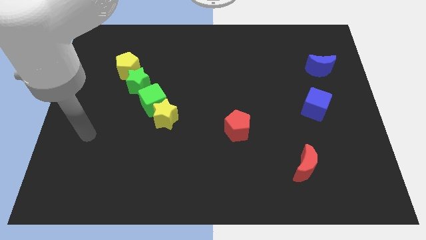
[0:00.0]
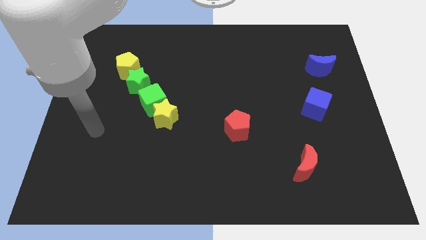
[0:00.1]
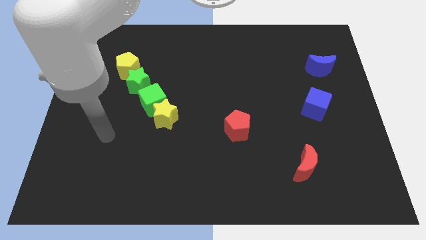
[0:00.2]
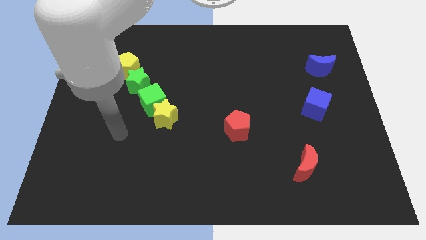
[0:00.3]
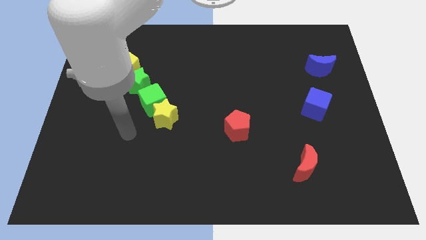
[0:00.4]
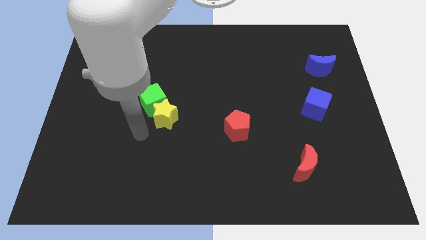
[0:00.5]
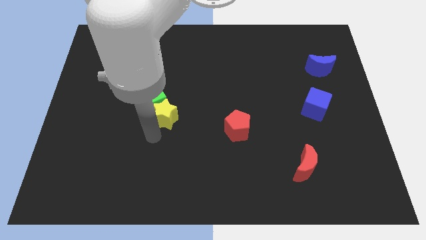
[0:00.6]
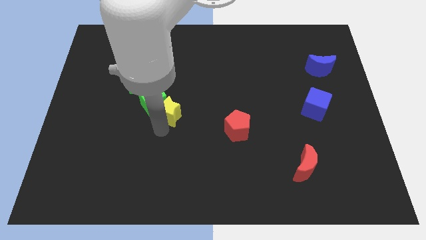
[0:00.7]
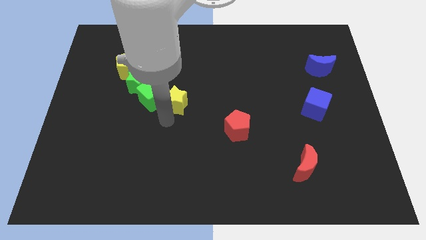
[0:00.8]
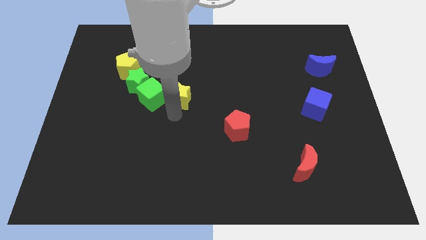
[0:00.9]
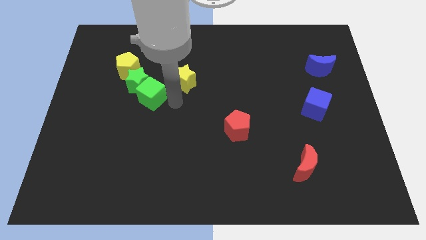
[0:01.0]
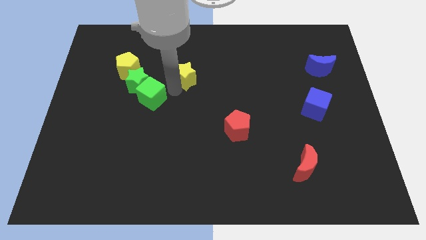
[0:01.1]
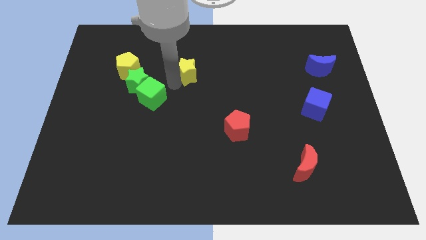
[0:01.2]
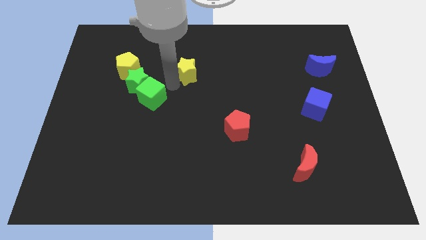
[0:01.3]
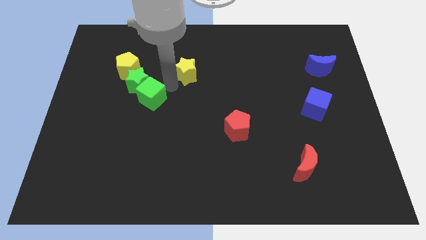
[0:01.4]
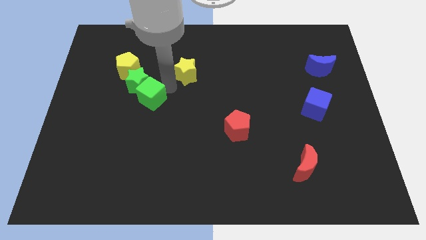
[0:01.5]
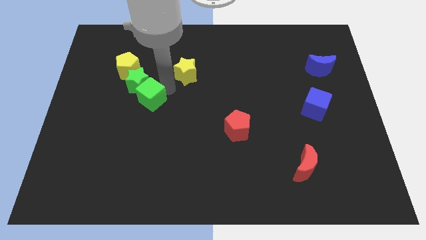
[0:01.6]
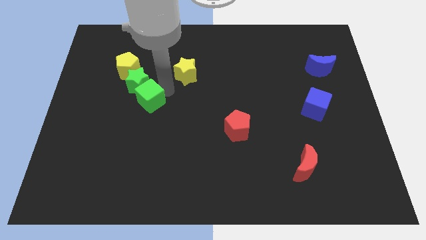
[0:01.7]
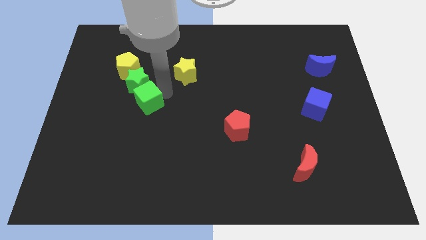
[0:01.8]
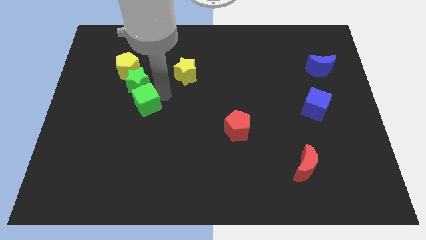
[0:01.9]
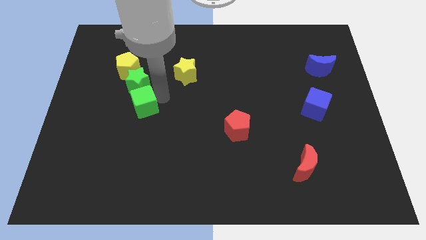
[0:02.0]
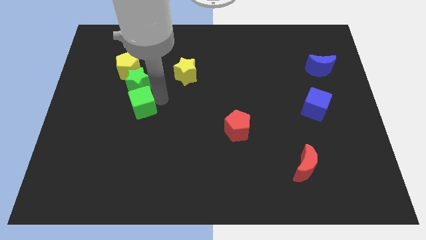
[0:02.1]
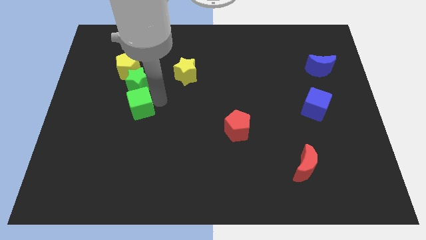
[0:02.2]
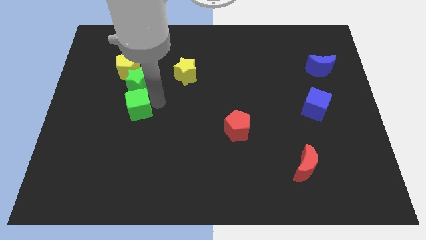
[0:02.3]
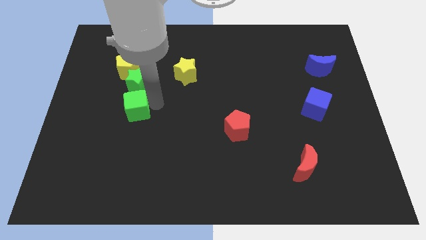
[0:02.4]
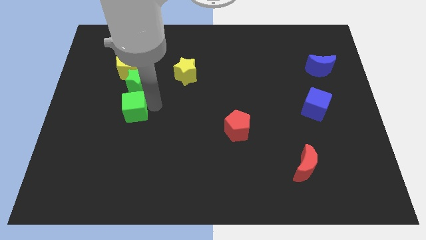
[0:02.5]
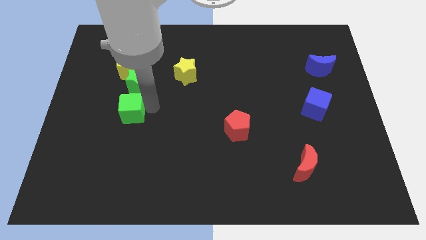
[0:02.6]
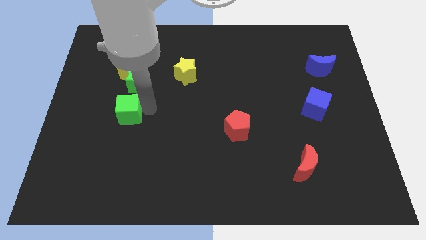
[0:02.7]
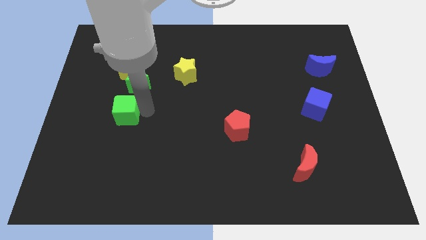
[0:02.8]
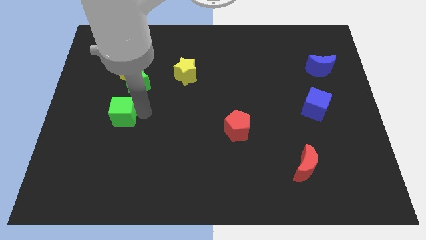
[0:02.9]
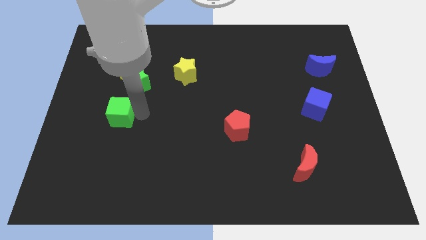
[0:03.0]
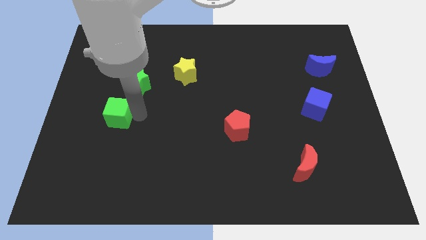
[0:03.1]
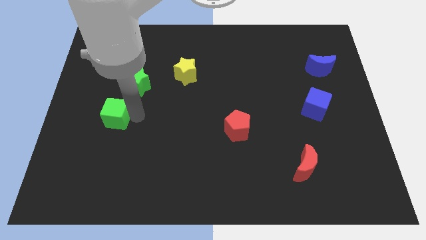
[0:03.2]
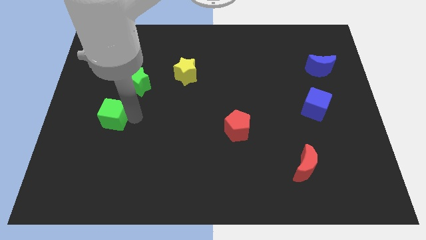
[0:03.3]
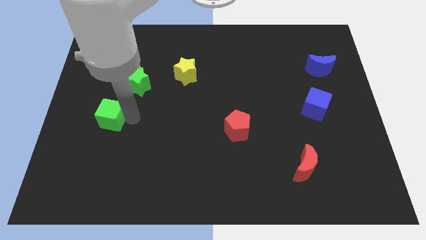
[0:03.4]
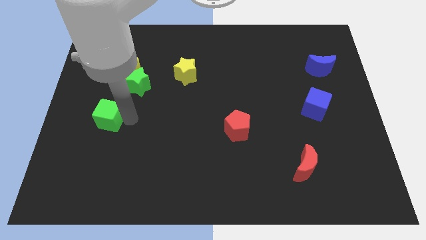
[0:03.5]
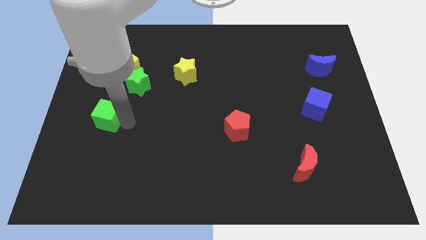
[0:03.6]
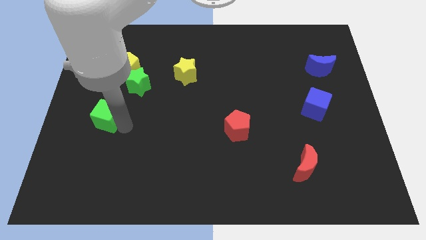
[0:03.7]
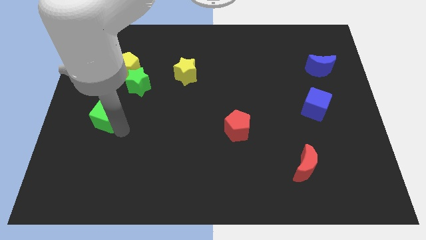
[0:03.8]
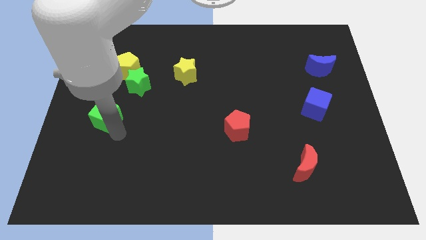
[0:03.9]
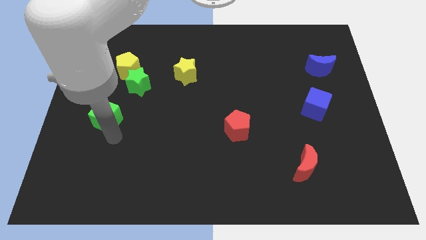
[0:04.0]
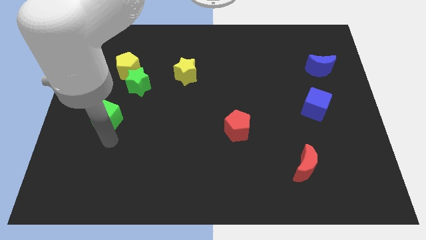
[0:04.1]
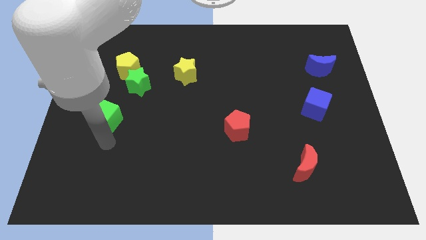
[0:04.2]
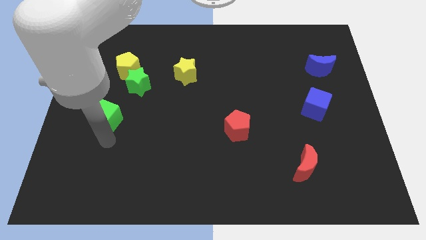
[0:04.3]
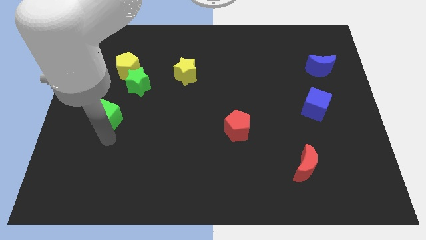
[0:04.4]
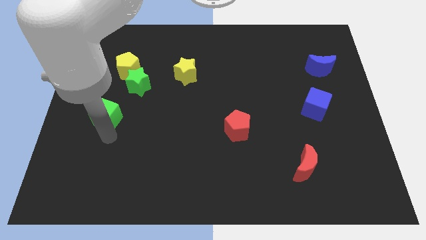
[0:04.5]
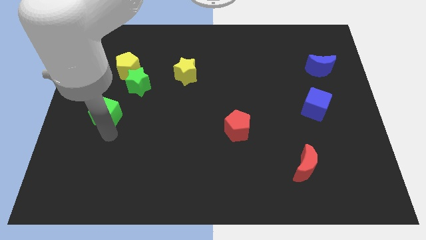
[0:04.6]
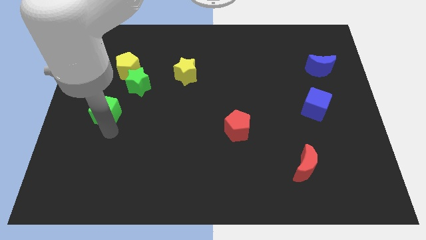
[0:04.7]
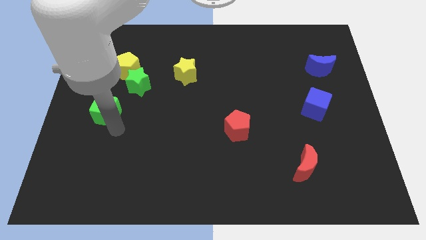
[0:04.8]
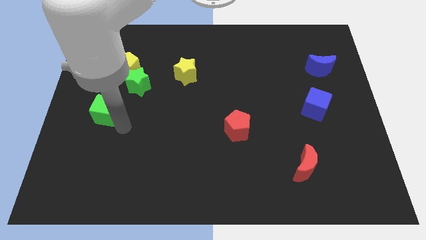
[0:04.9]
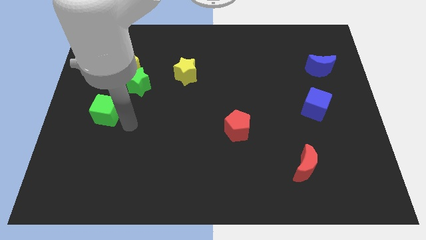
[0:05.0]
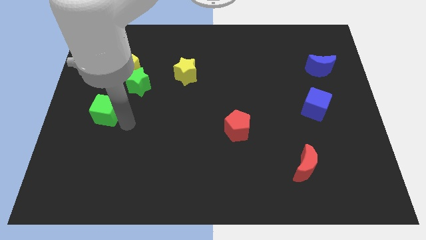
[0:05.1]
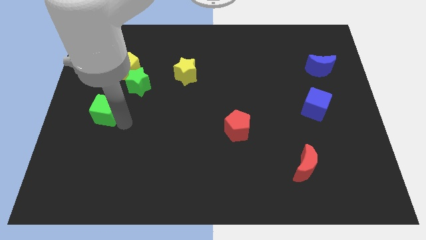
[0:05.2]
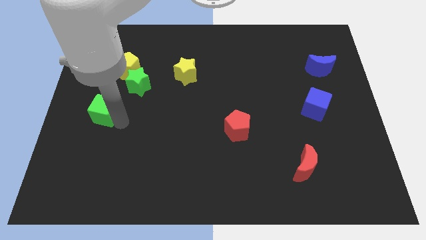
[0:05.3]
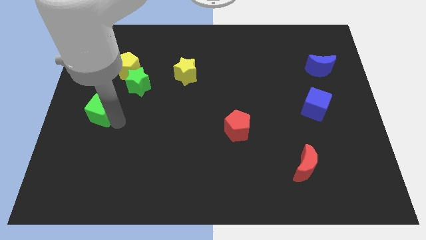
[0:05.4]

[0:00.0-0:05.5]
move the green cube to the center left

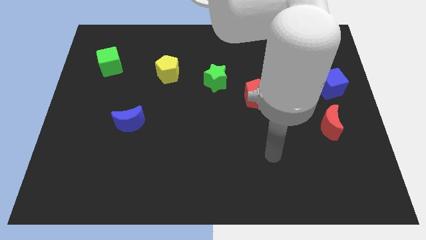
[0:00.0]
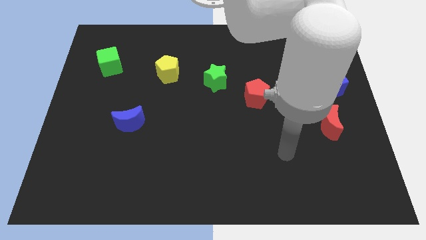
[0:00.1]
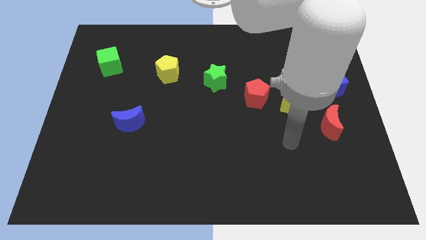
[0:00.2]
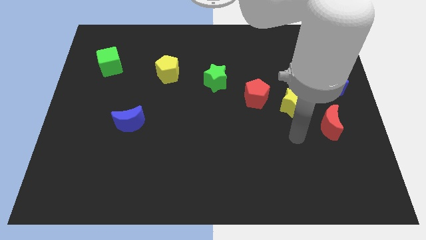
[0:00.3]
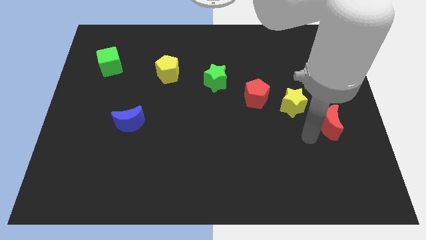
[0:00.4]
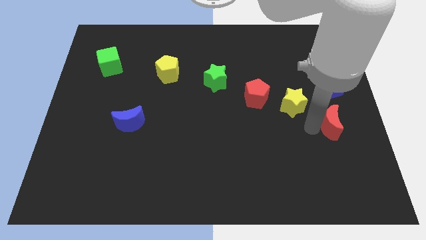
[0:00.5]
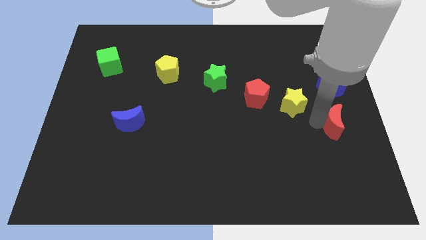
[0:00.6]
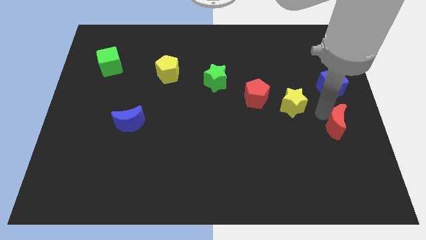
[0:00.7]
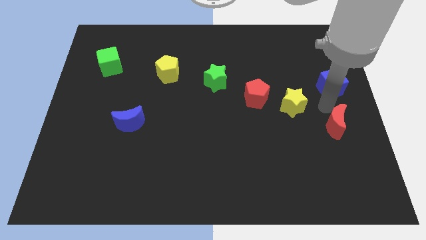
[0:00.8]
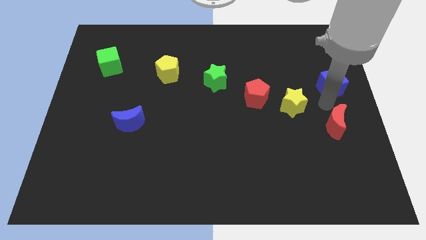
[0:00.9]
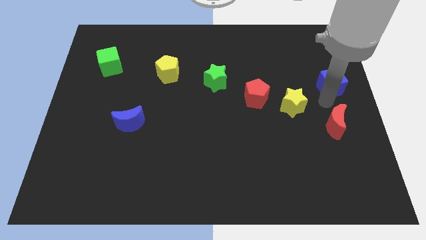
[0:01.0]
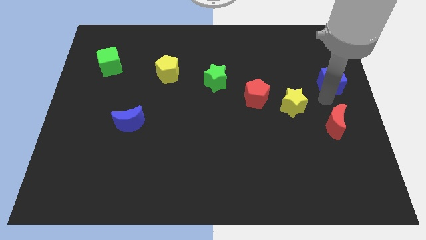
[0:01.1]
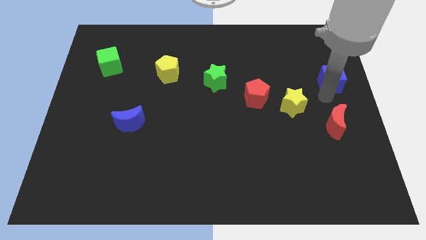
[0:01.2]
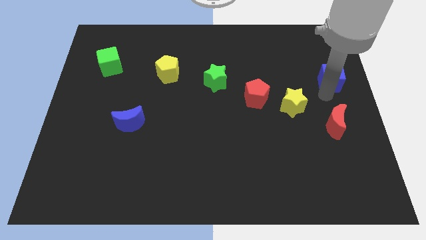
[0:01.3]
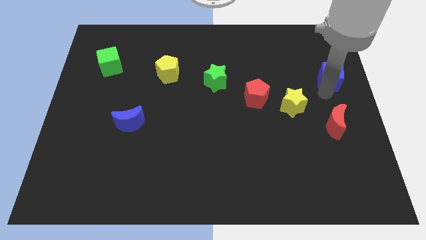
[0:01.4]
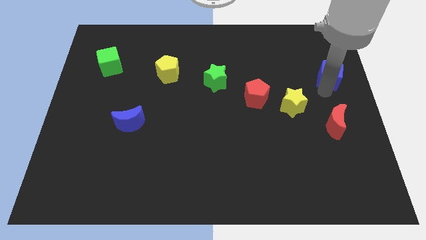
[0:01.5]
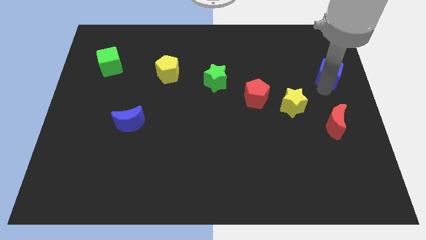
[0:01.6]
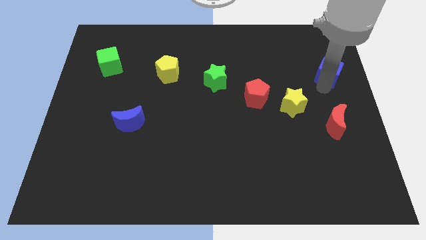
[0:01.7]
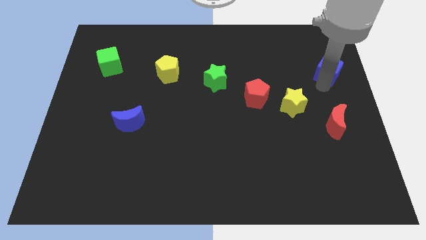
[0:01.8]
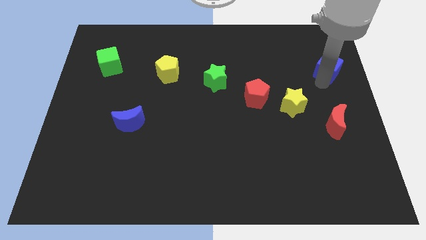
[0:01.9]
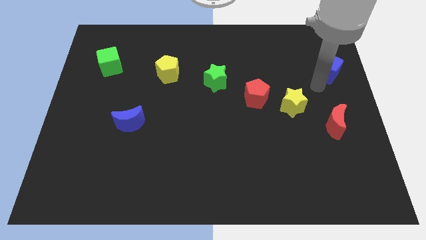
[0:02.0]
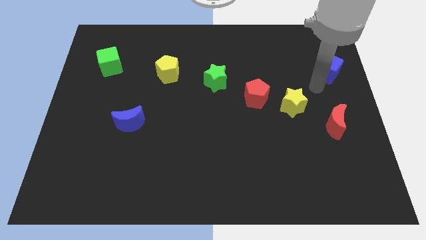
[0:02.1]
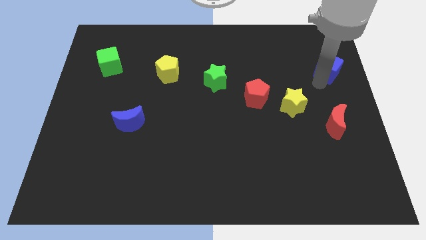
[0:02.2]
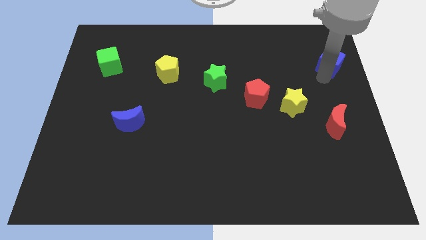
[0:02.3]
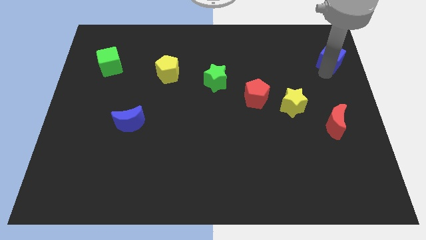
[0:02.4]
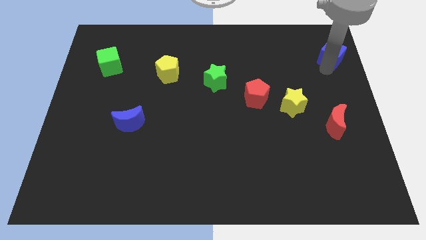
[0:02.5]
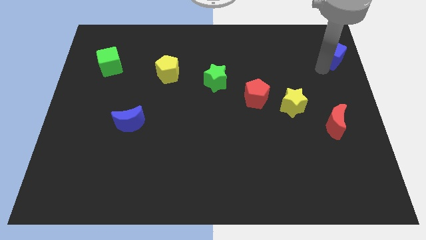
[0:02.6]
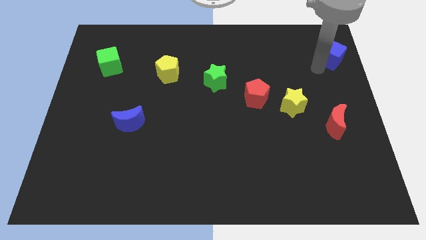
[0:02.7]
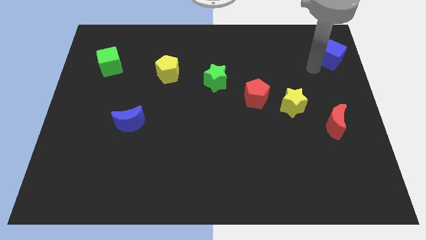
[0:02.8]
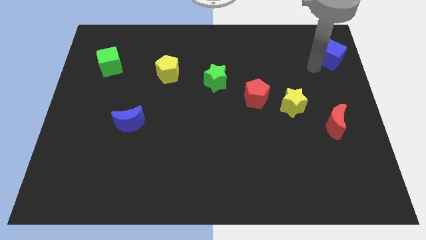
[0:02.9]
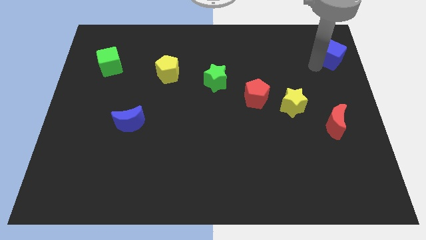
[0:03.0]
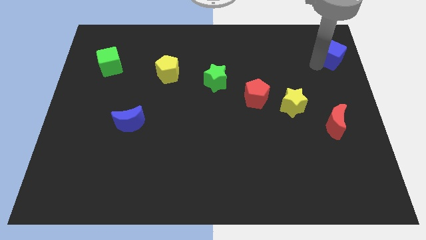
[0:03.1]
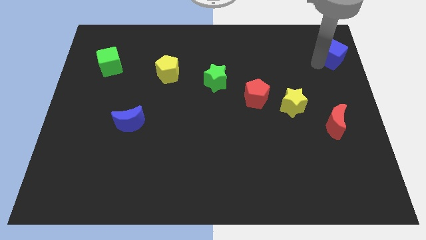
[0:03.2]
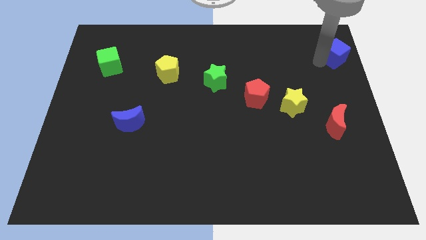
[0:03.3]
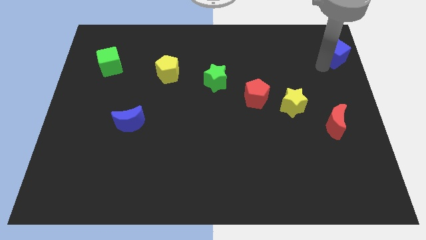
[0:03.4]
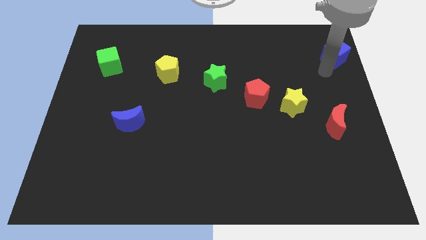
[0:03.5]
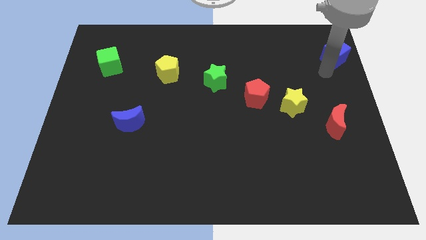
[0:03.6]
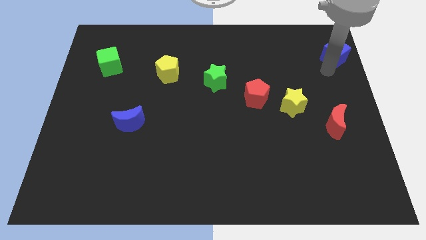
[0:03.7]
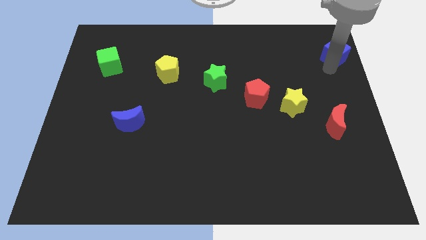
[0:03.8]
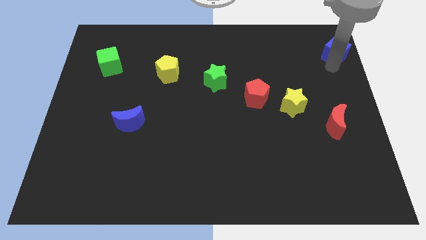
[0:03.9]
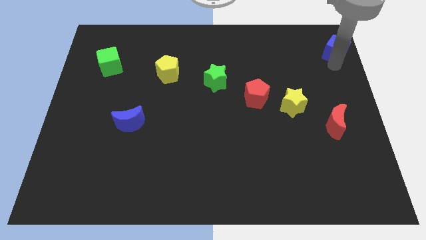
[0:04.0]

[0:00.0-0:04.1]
put the blue cube to the top right
